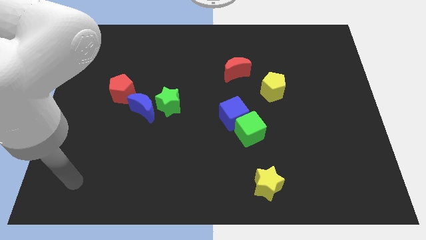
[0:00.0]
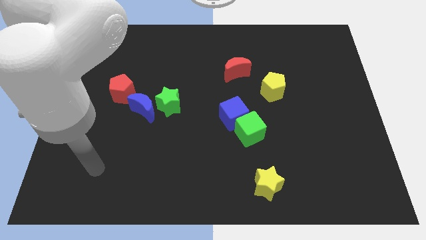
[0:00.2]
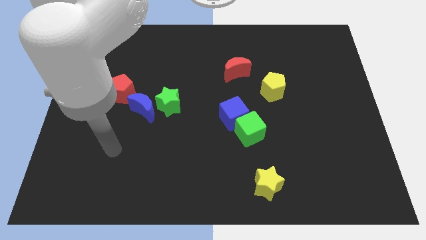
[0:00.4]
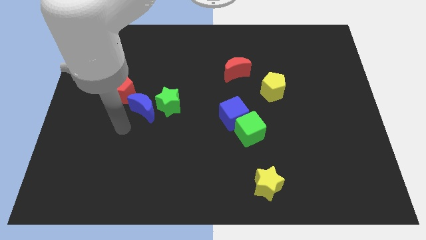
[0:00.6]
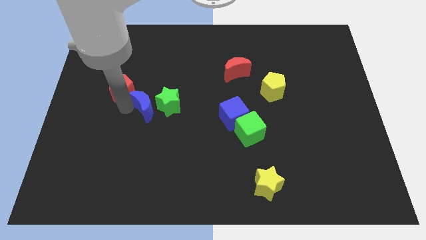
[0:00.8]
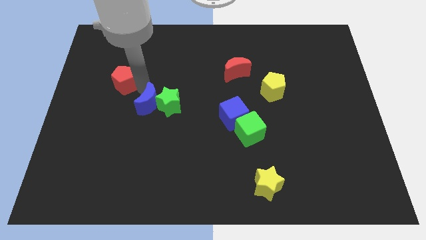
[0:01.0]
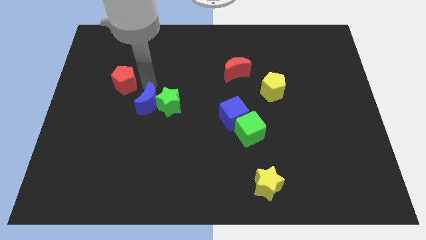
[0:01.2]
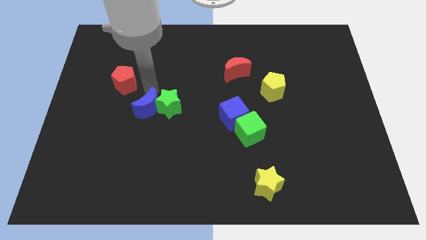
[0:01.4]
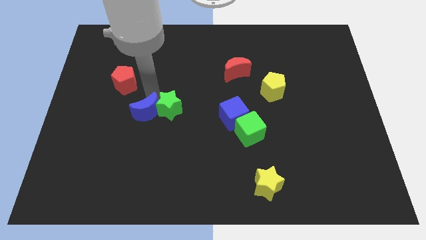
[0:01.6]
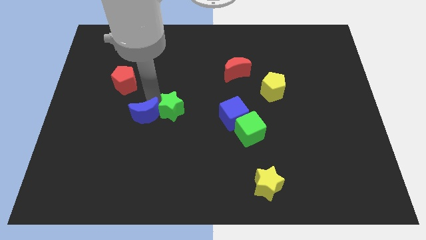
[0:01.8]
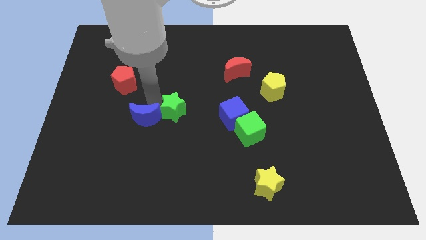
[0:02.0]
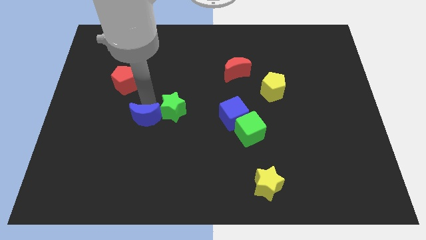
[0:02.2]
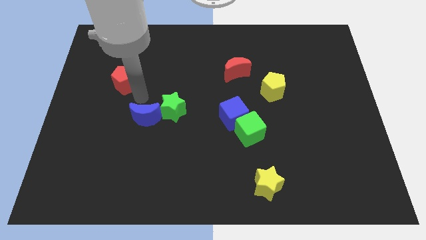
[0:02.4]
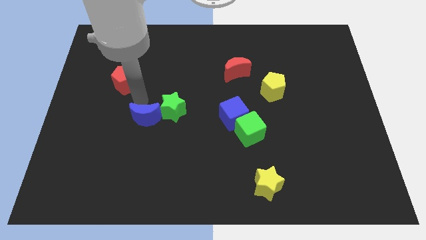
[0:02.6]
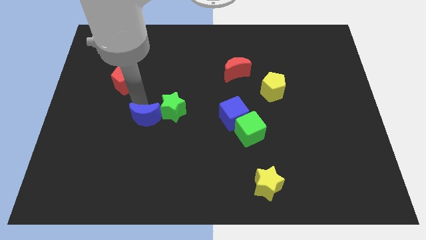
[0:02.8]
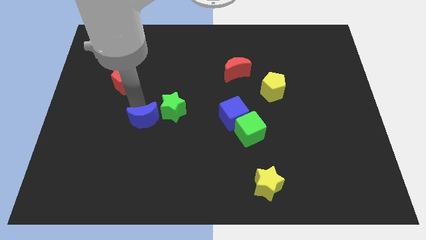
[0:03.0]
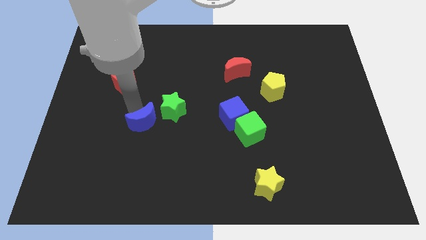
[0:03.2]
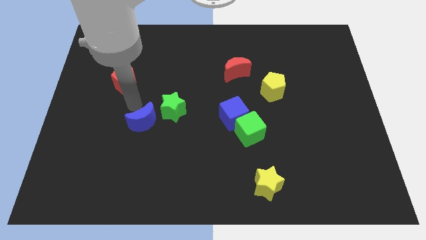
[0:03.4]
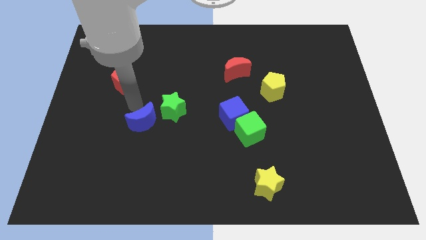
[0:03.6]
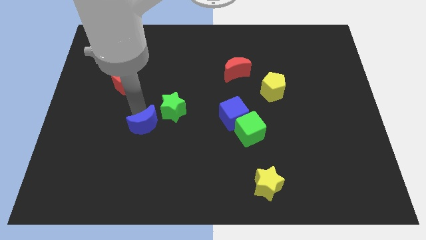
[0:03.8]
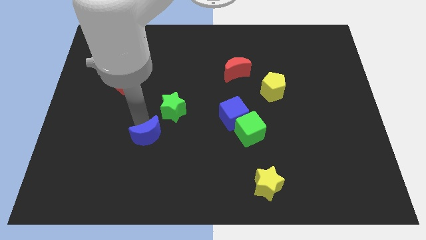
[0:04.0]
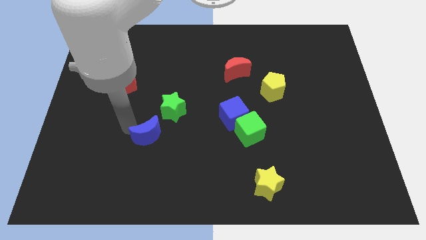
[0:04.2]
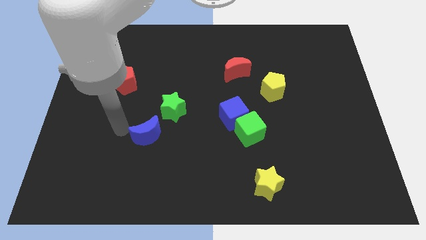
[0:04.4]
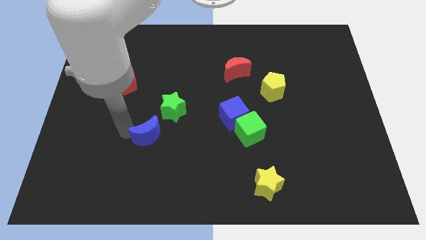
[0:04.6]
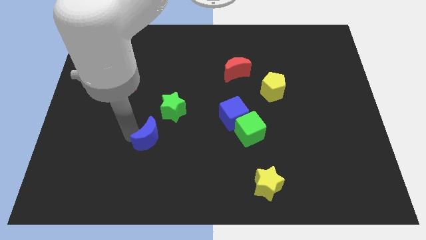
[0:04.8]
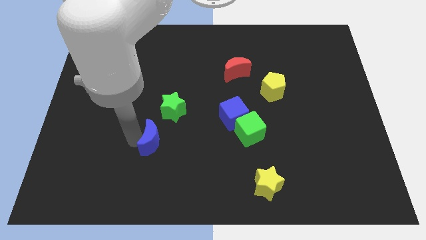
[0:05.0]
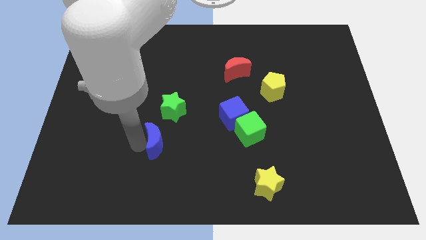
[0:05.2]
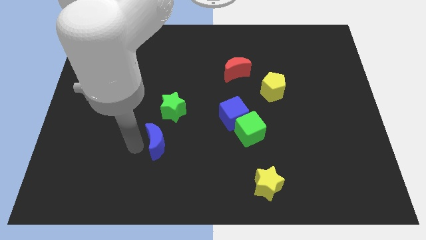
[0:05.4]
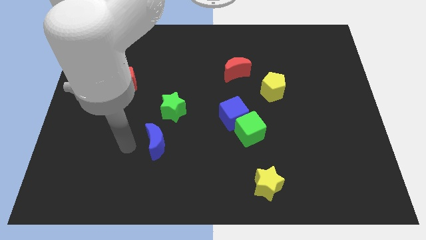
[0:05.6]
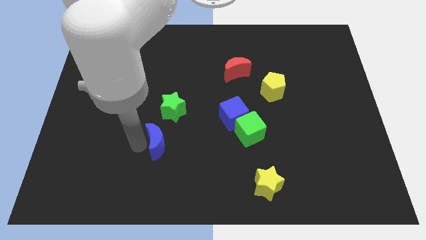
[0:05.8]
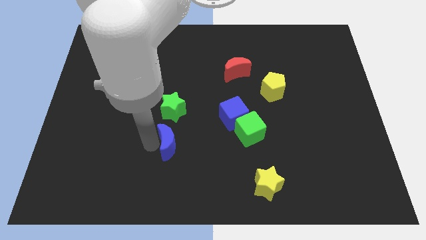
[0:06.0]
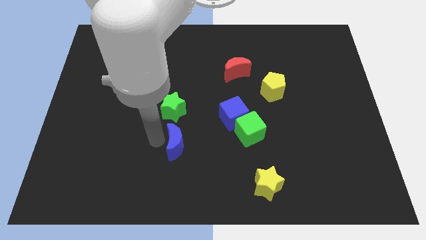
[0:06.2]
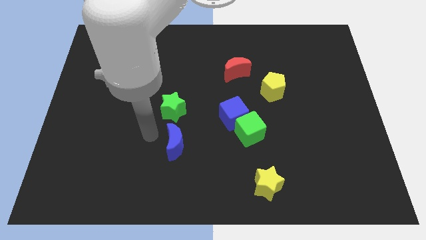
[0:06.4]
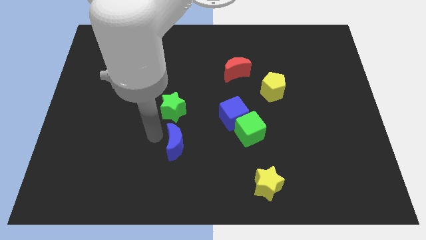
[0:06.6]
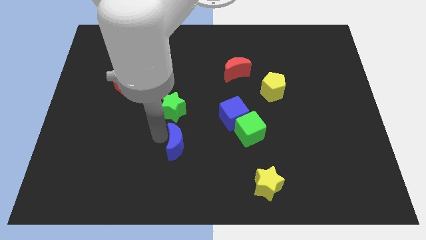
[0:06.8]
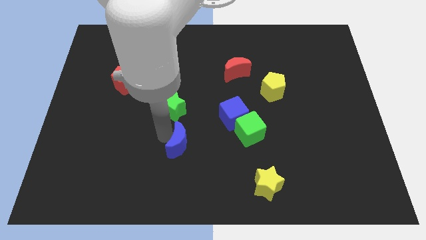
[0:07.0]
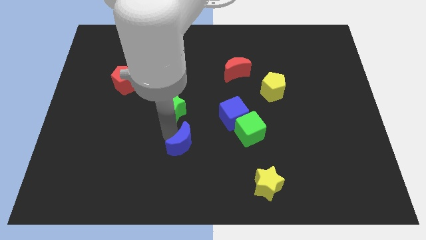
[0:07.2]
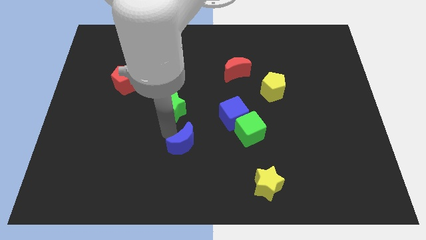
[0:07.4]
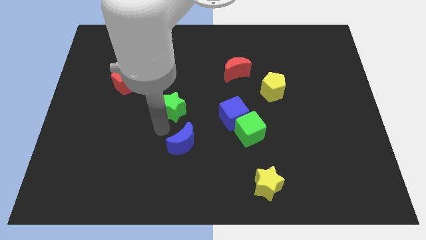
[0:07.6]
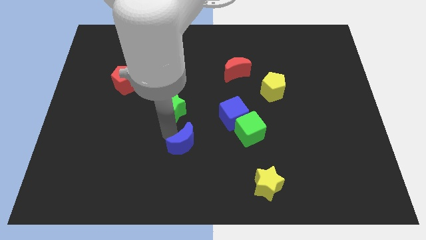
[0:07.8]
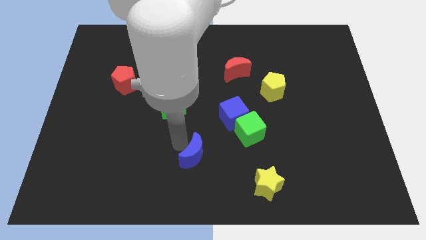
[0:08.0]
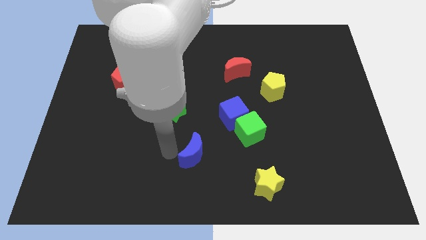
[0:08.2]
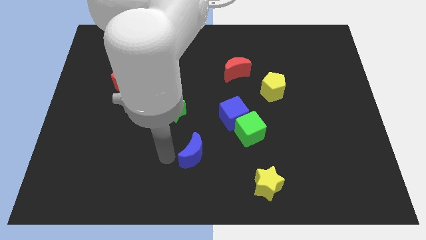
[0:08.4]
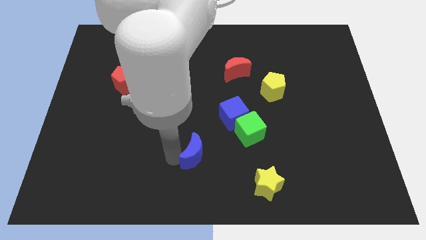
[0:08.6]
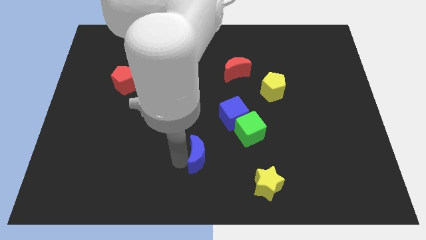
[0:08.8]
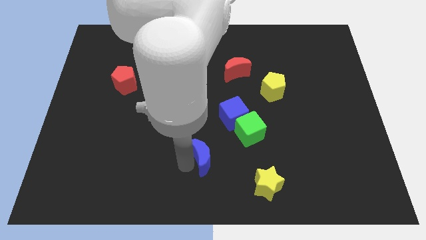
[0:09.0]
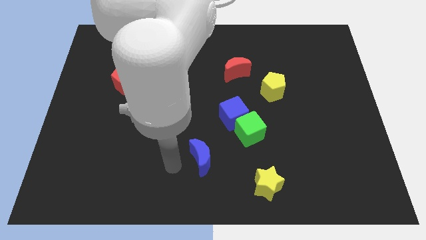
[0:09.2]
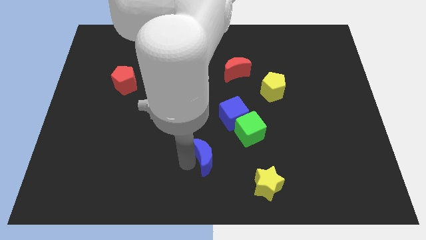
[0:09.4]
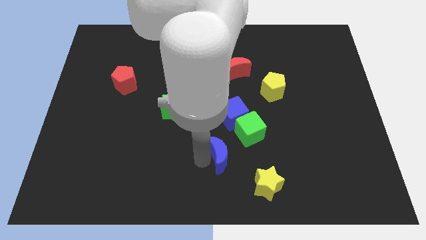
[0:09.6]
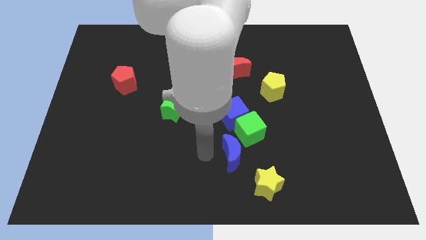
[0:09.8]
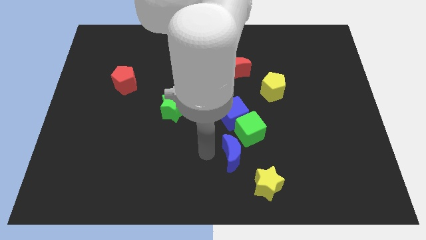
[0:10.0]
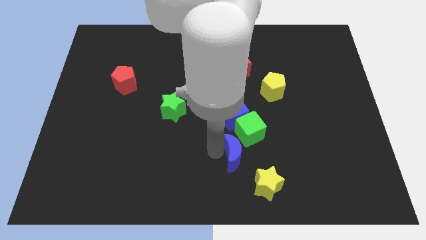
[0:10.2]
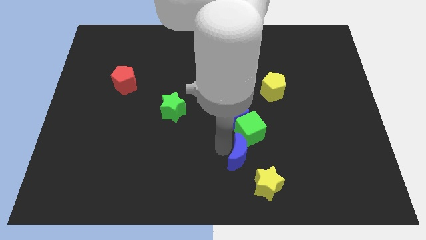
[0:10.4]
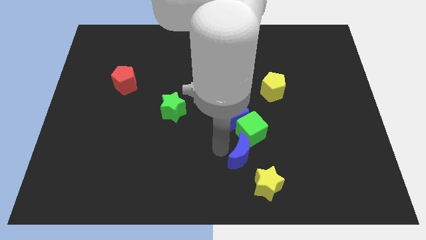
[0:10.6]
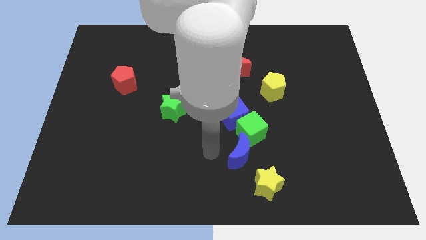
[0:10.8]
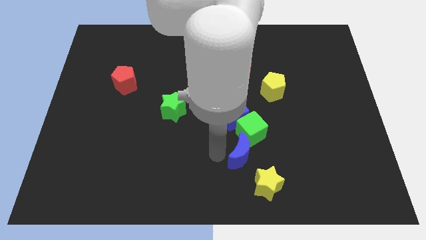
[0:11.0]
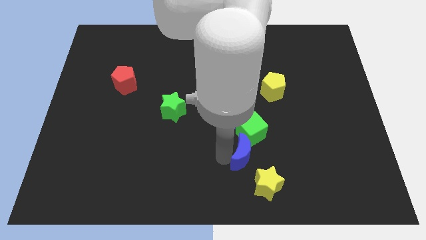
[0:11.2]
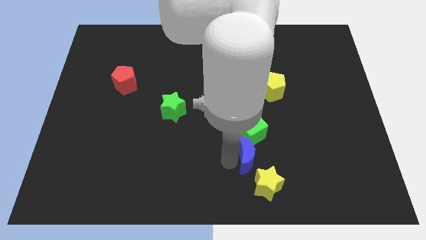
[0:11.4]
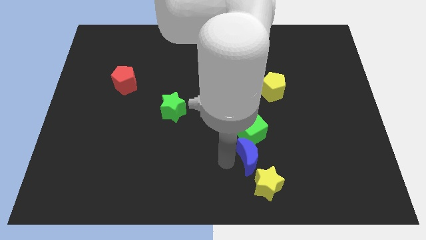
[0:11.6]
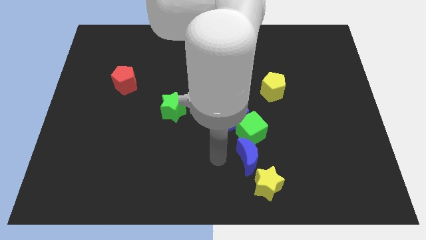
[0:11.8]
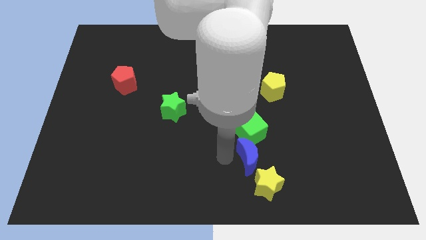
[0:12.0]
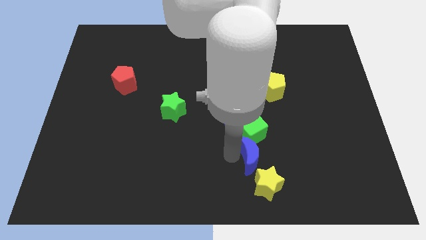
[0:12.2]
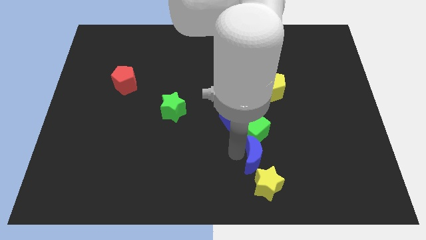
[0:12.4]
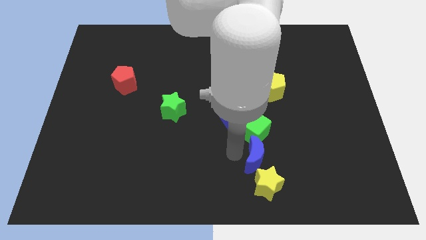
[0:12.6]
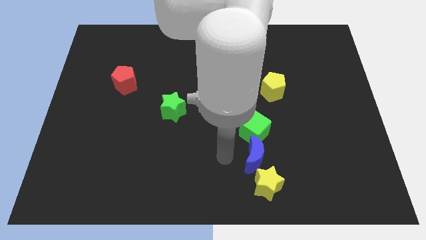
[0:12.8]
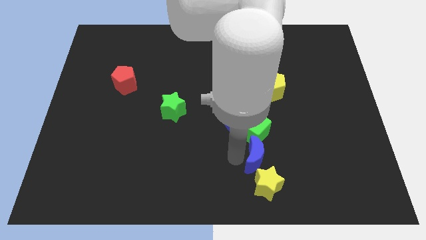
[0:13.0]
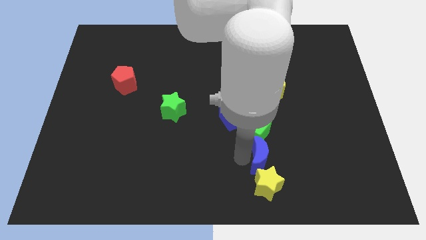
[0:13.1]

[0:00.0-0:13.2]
slide the blue moon diagonally up and to the right of the yellow star
